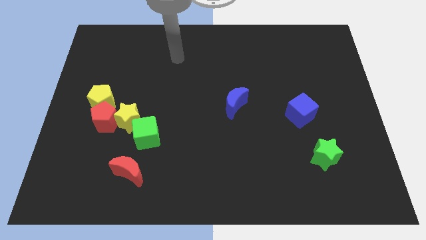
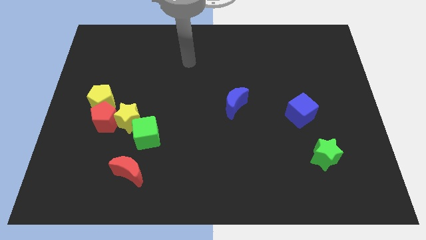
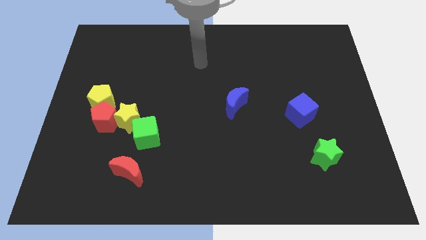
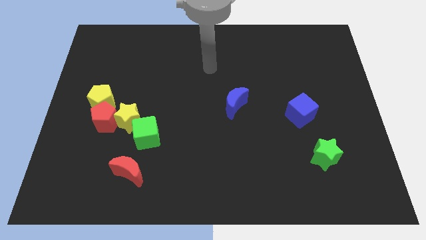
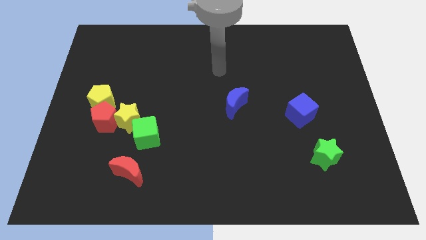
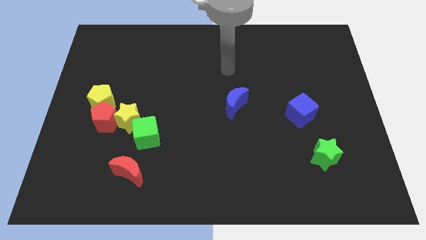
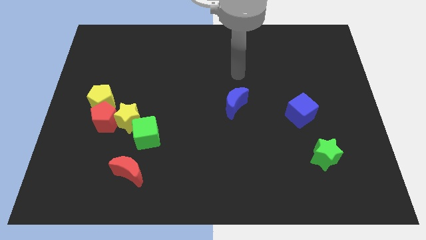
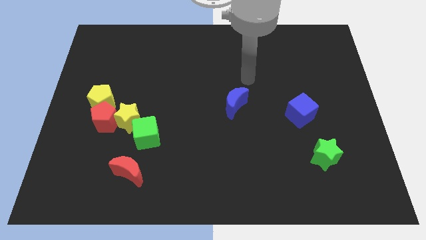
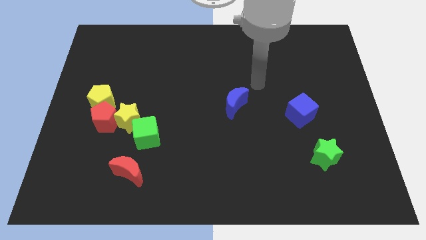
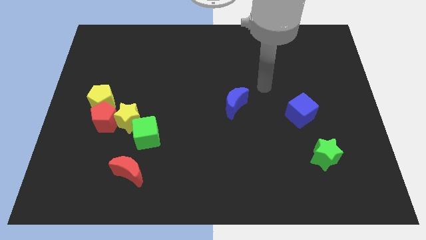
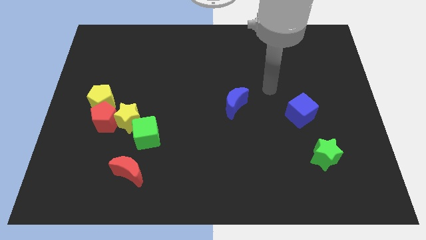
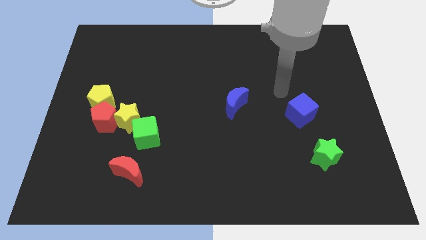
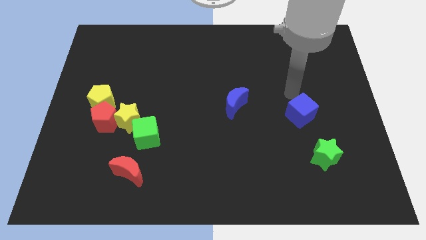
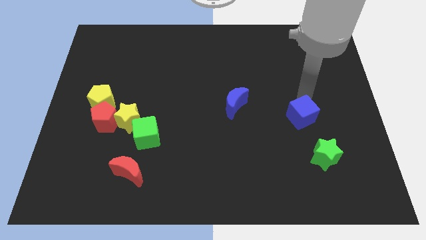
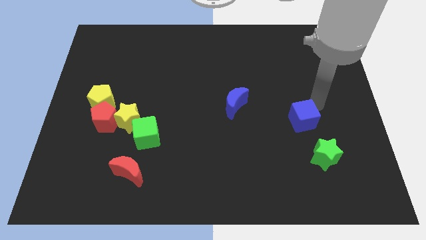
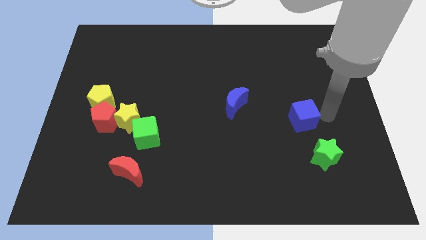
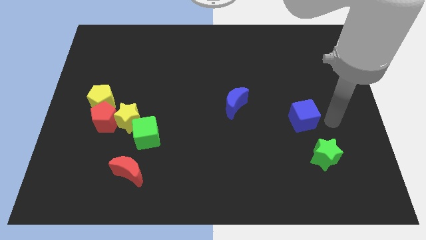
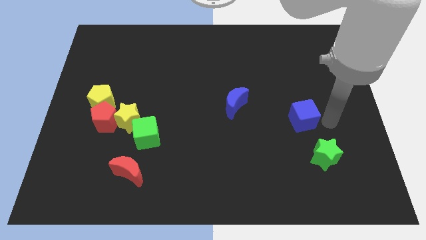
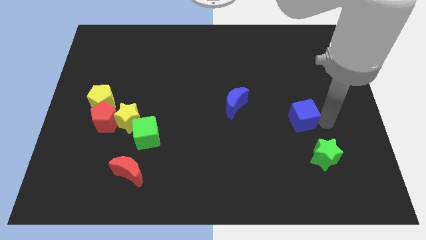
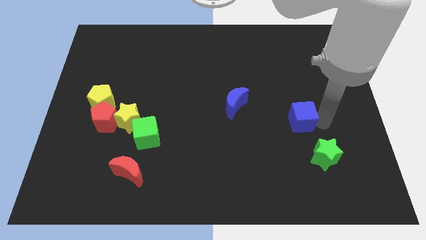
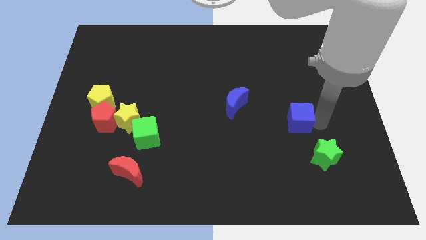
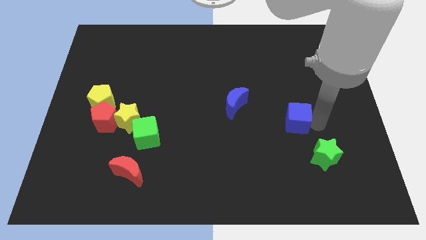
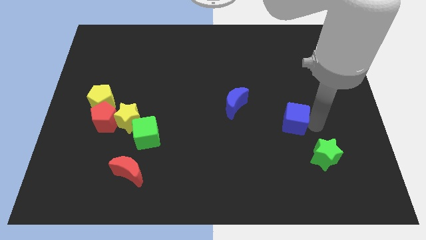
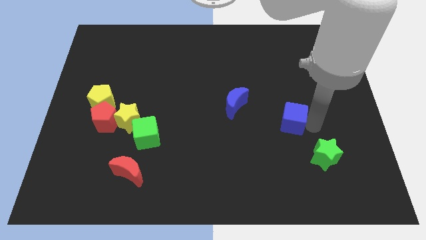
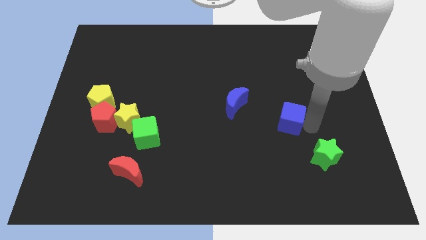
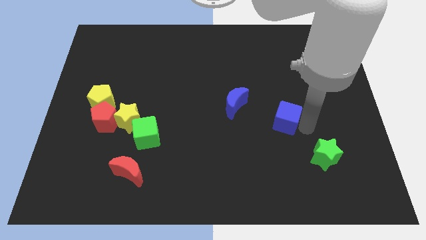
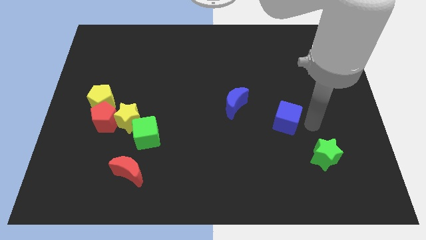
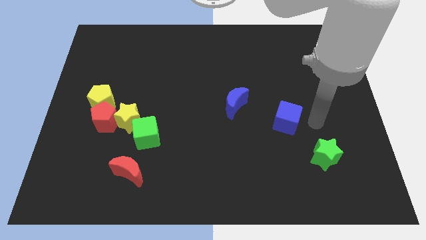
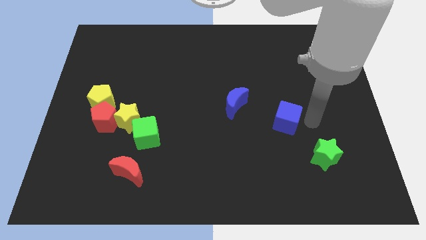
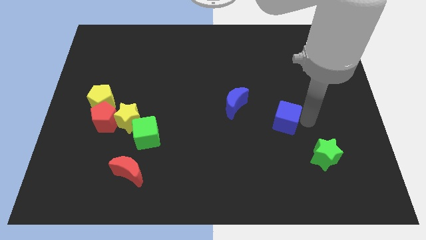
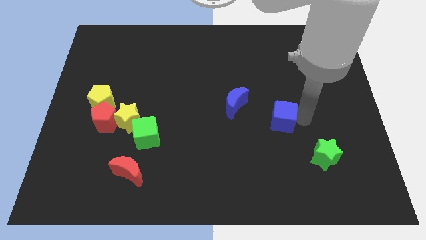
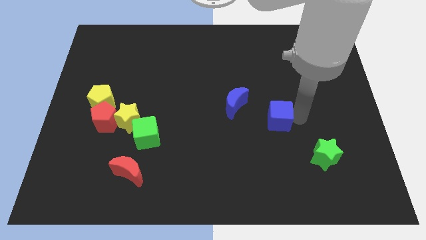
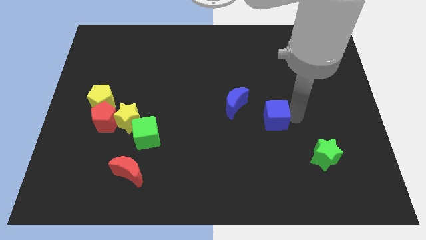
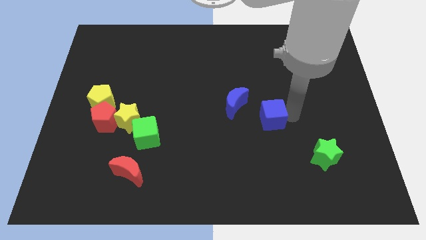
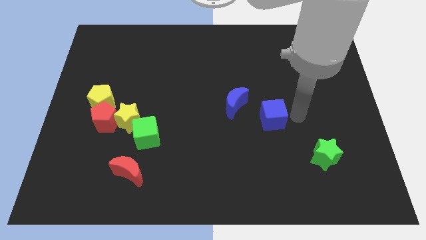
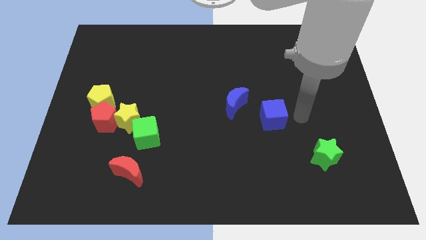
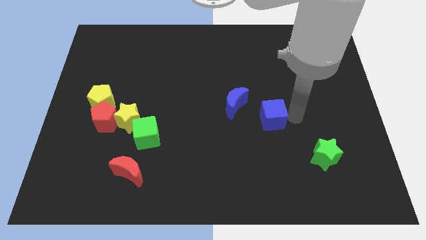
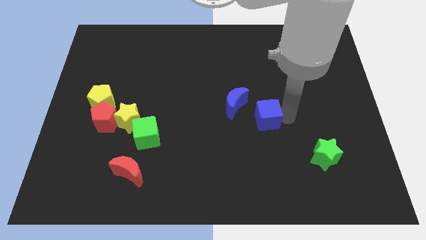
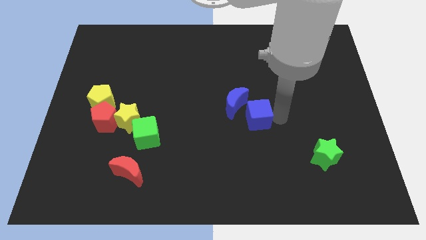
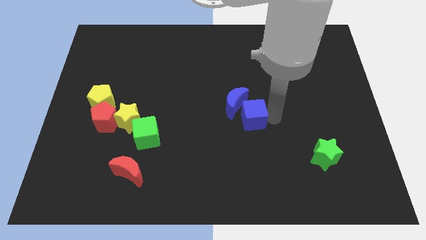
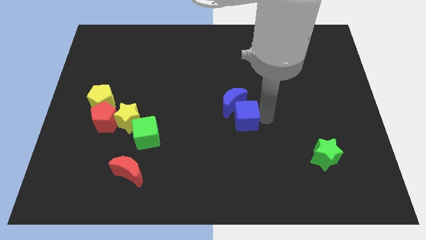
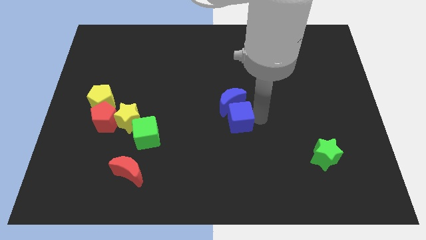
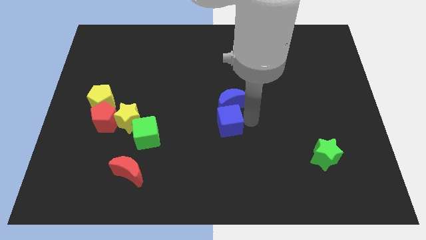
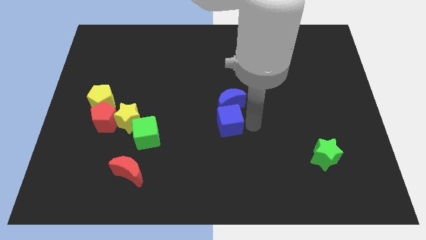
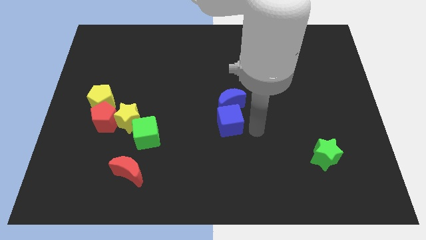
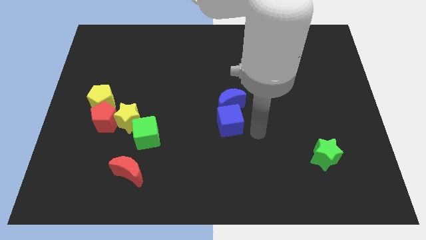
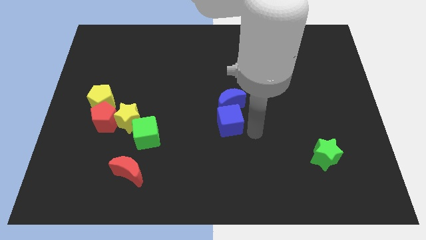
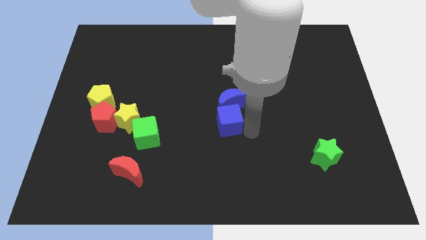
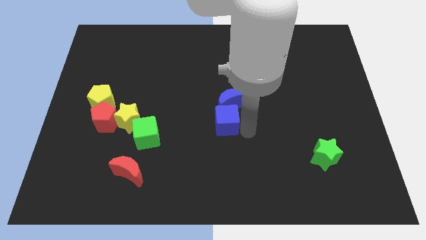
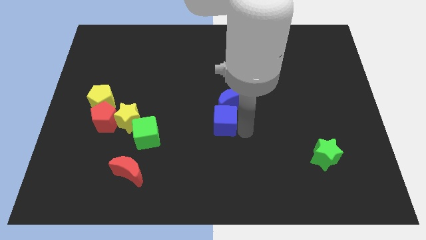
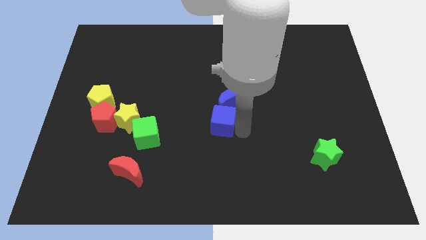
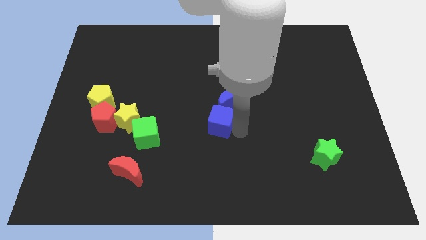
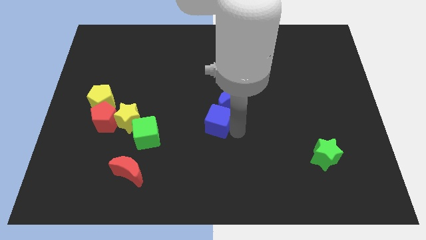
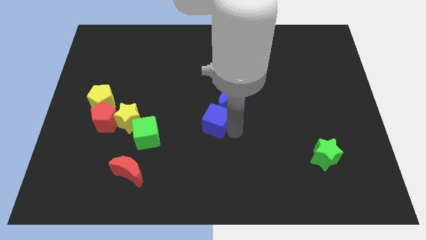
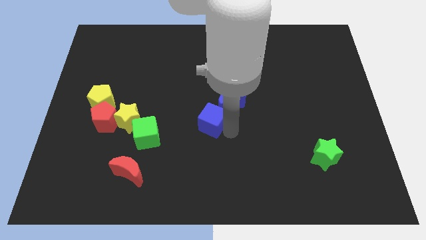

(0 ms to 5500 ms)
move the blue cube to the left

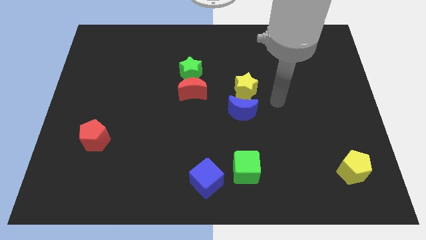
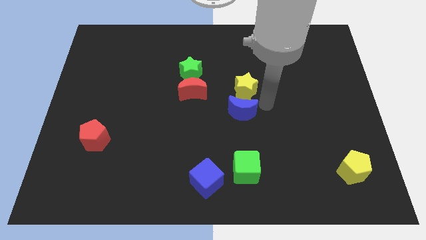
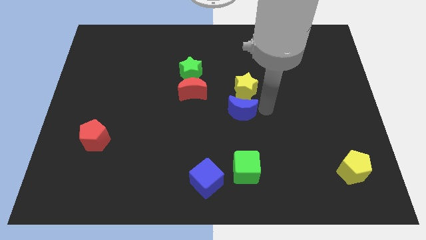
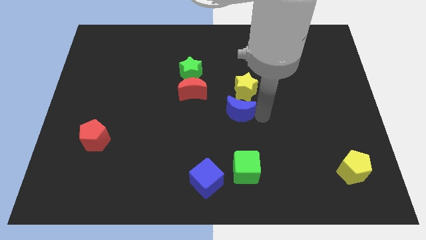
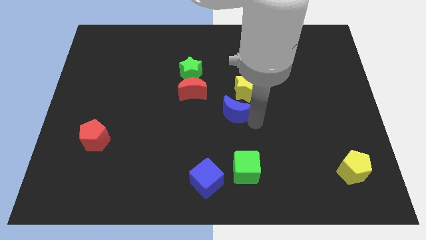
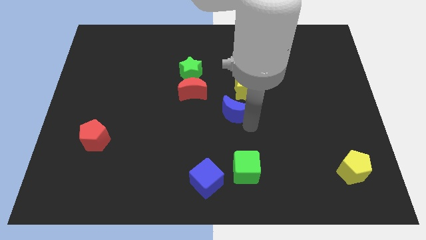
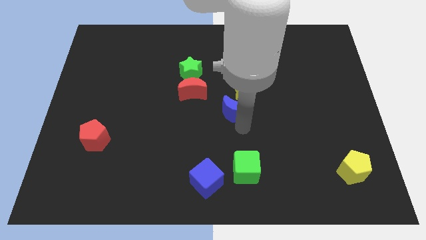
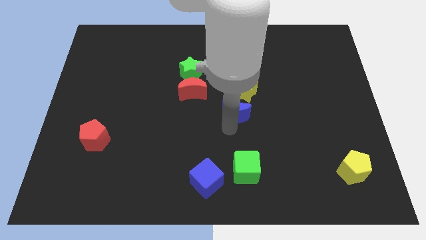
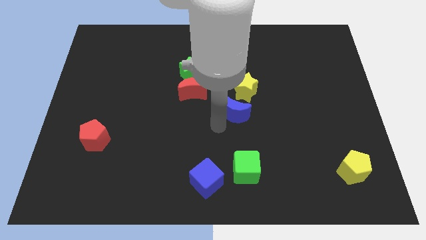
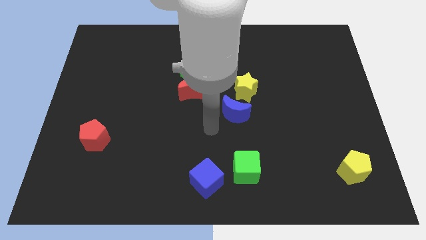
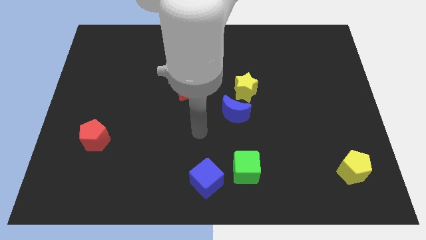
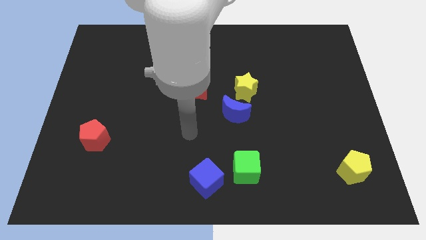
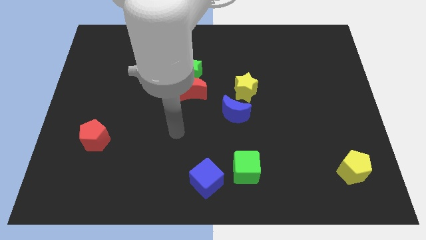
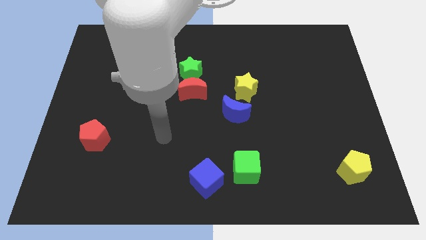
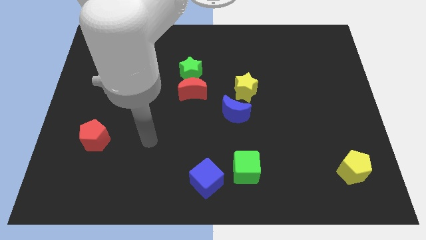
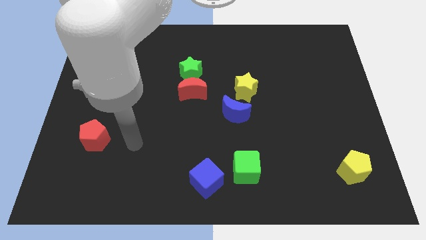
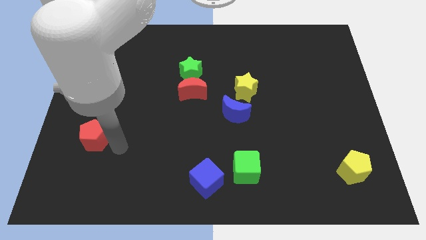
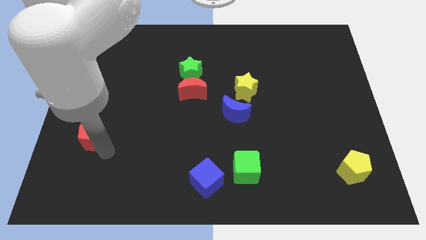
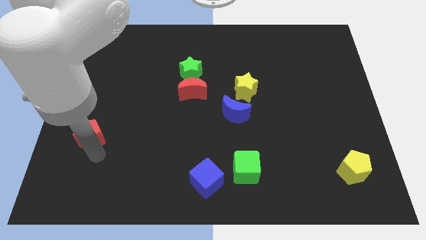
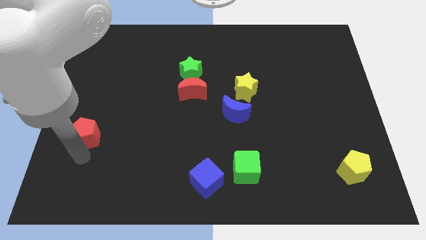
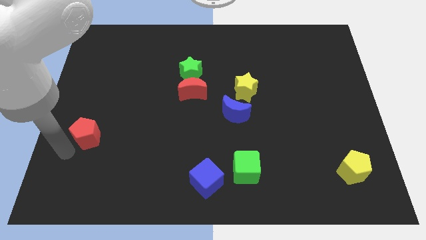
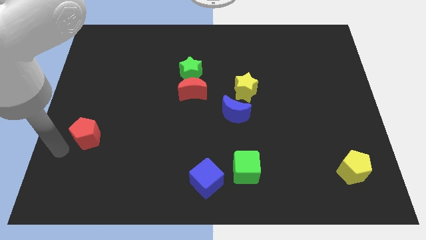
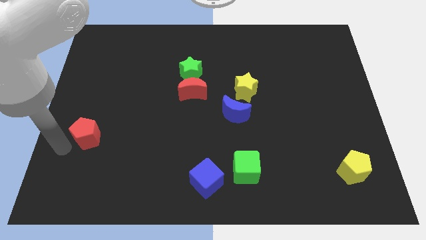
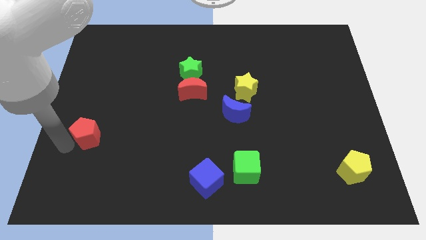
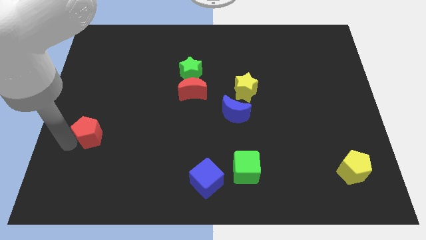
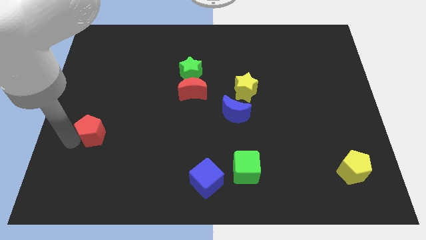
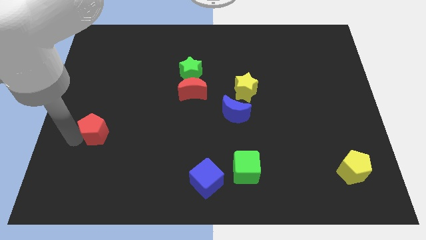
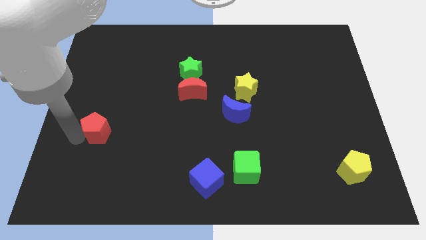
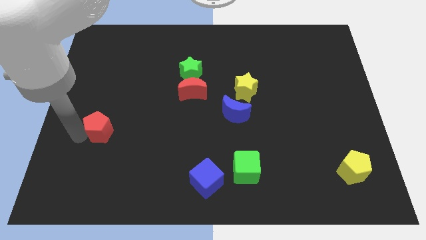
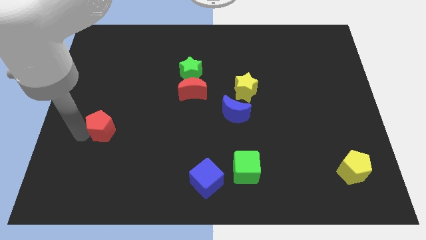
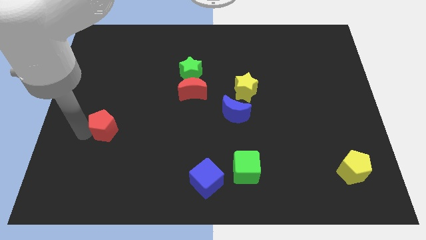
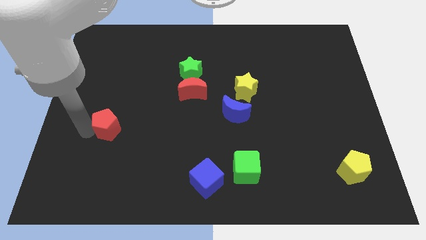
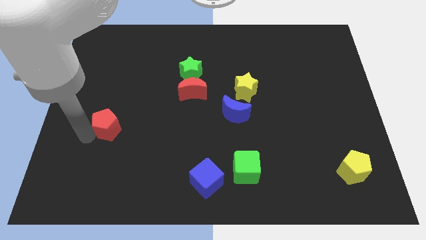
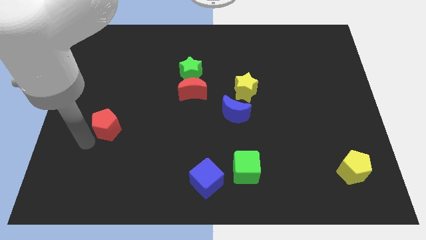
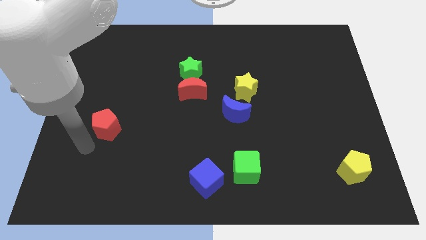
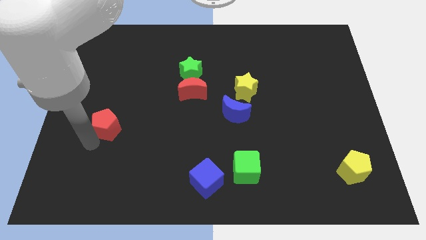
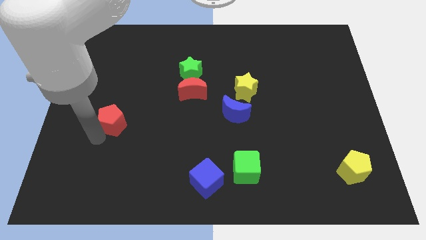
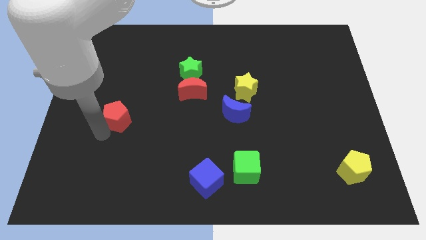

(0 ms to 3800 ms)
slightly push the red pentagon up and right diagonally
